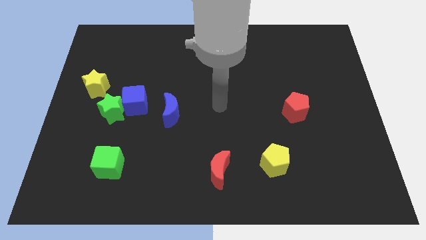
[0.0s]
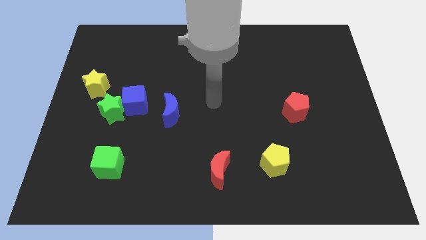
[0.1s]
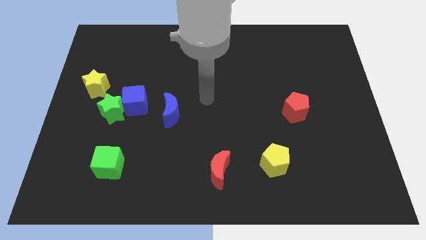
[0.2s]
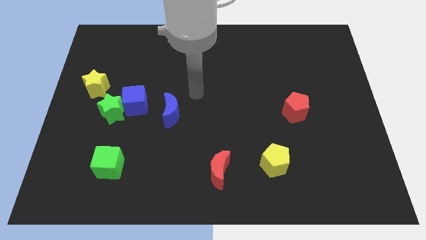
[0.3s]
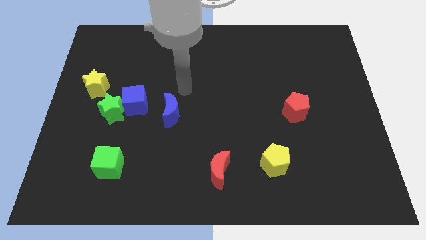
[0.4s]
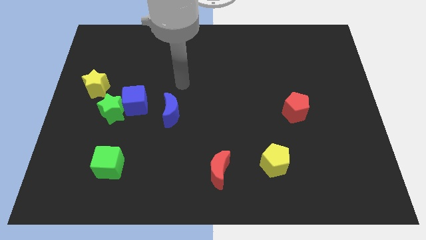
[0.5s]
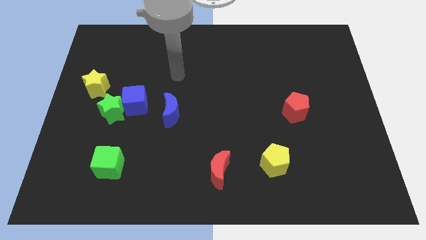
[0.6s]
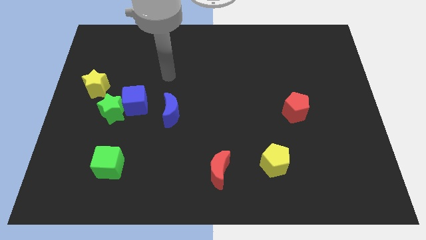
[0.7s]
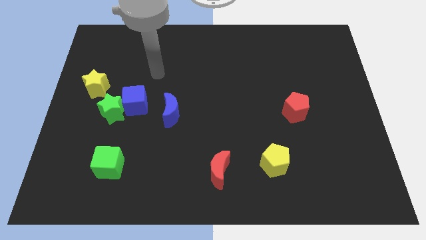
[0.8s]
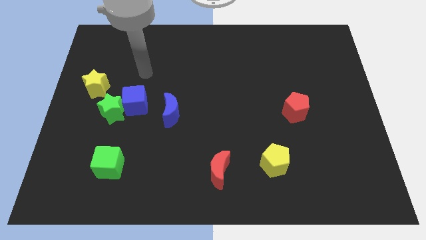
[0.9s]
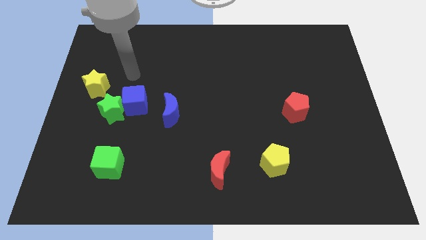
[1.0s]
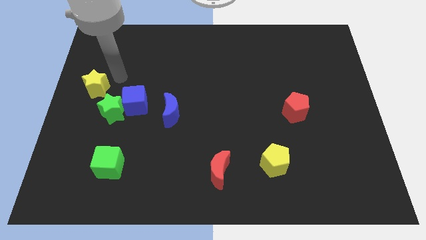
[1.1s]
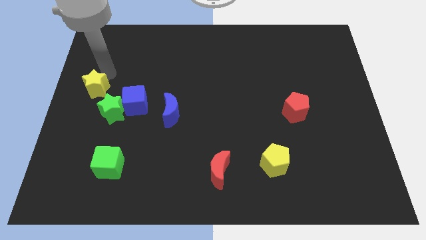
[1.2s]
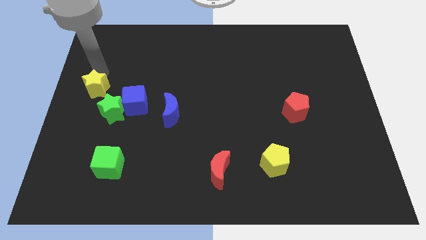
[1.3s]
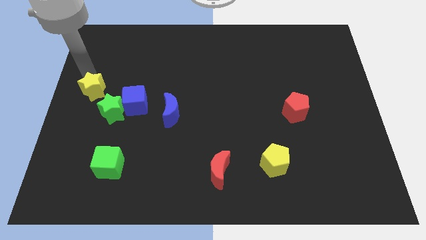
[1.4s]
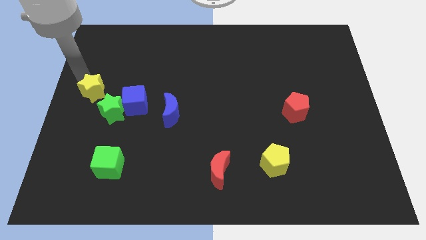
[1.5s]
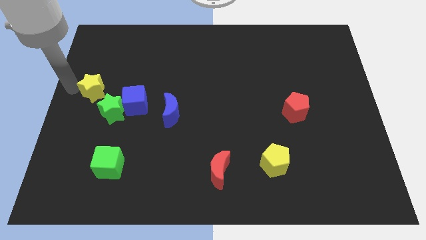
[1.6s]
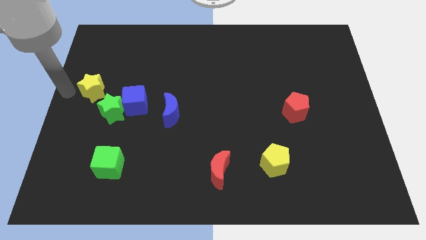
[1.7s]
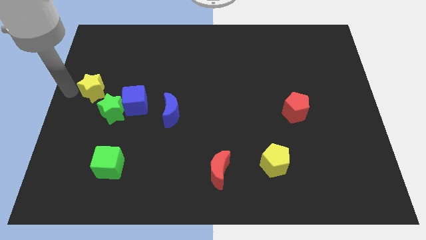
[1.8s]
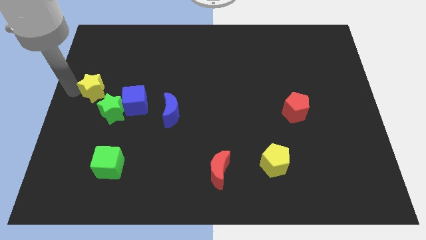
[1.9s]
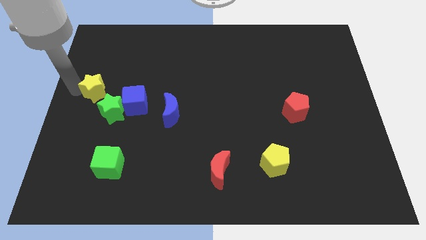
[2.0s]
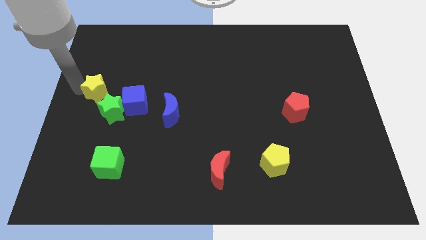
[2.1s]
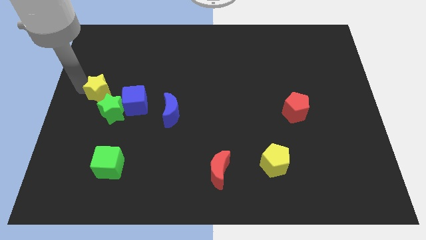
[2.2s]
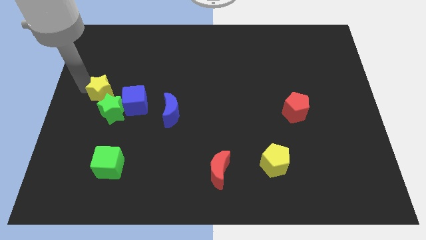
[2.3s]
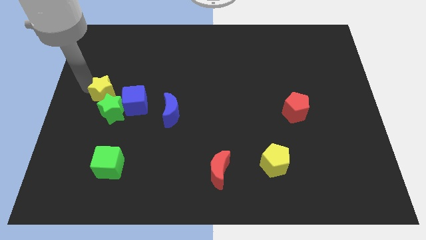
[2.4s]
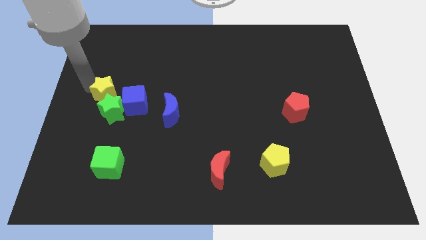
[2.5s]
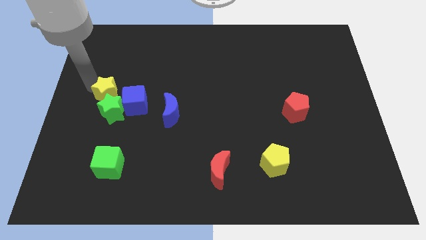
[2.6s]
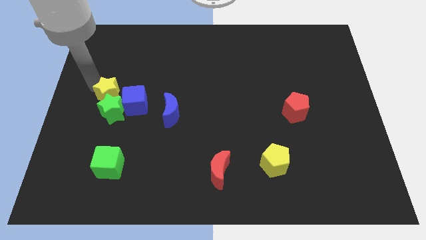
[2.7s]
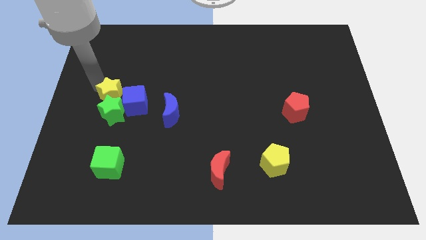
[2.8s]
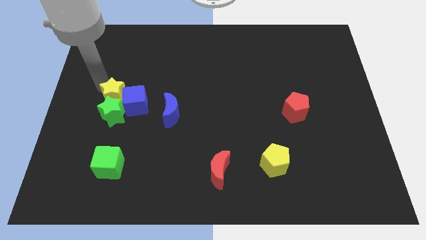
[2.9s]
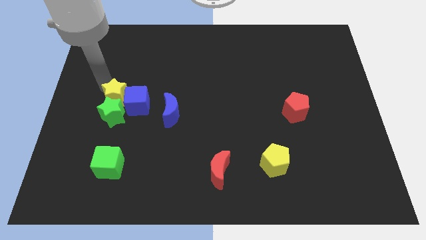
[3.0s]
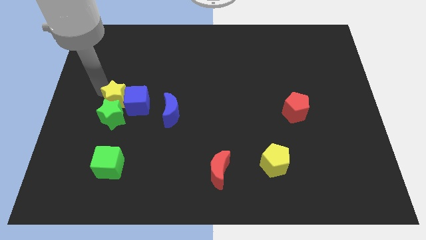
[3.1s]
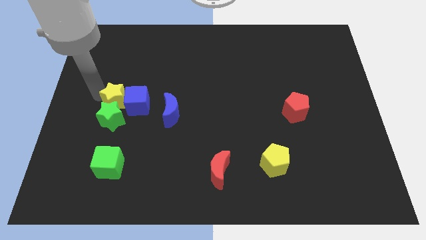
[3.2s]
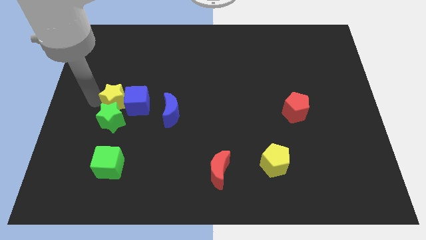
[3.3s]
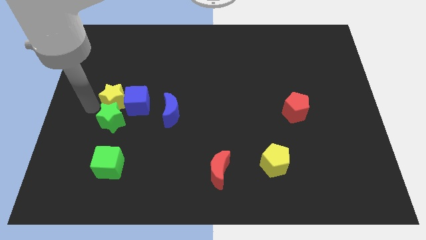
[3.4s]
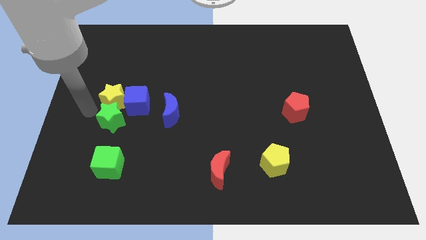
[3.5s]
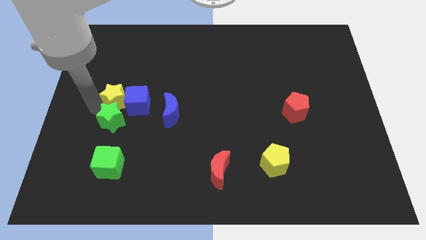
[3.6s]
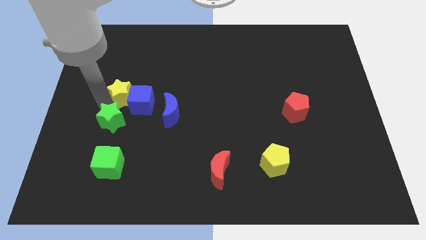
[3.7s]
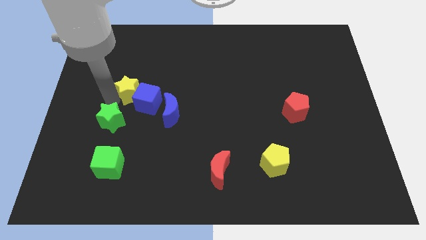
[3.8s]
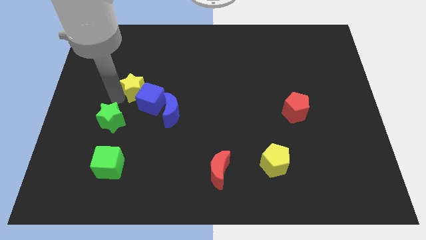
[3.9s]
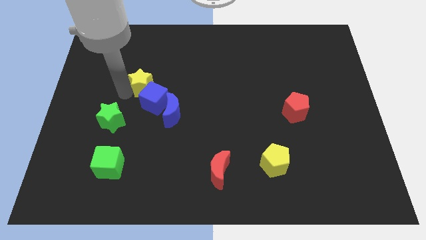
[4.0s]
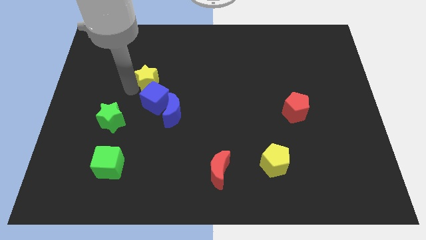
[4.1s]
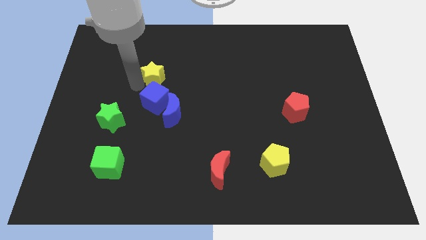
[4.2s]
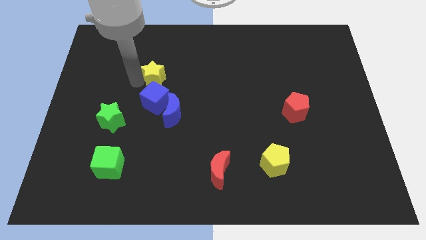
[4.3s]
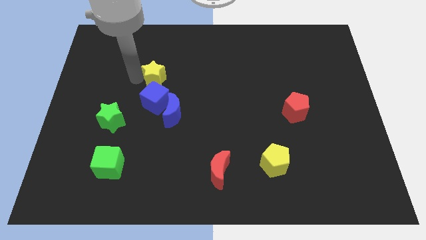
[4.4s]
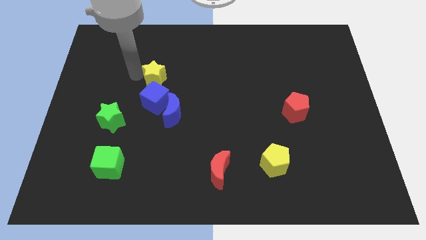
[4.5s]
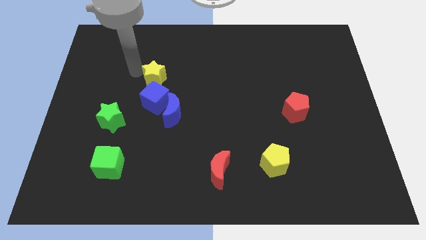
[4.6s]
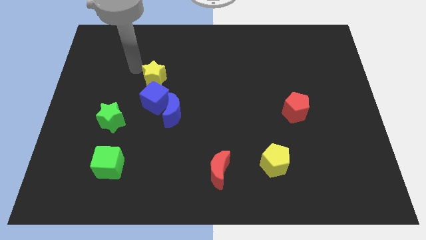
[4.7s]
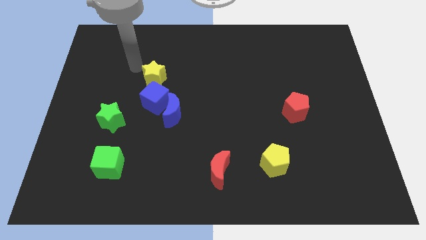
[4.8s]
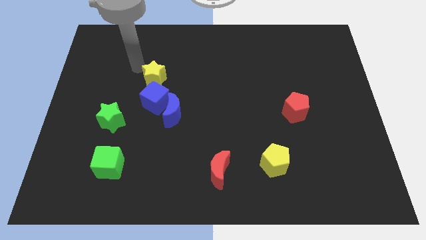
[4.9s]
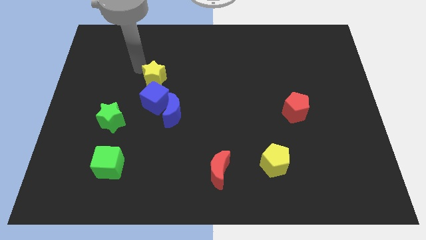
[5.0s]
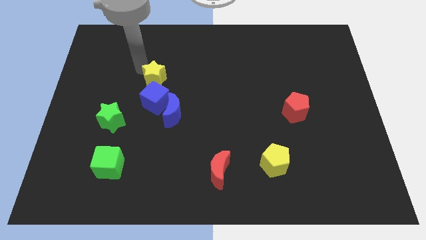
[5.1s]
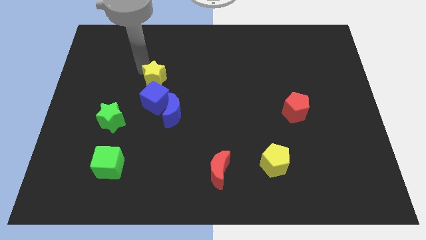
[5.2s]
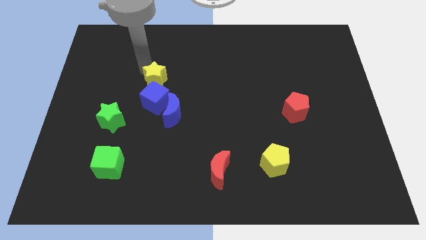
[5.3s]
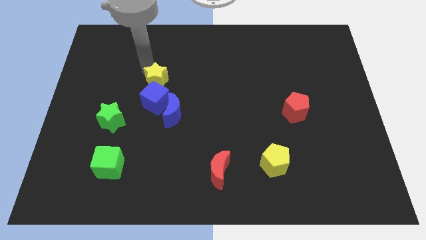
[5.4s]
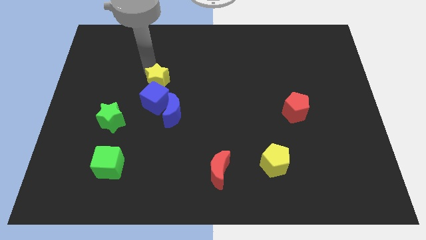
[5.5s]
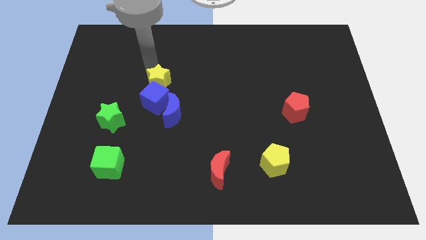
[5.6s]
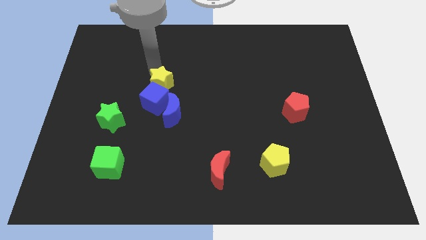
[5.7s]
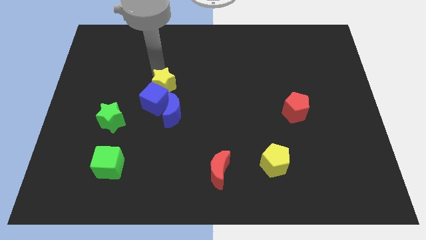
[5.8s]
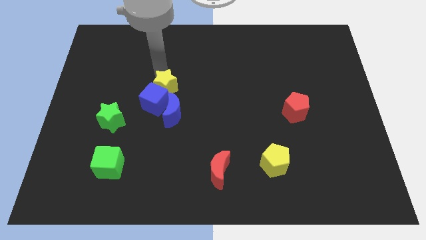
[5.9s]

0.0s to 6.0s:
move the yellow star to the middle
